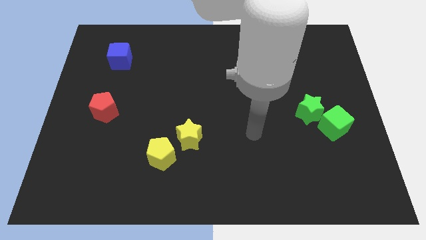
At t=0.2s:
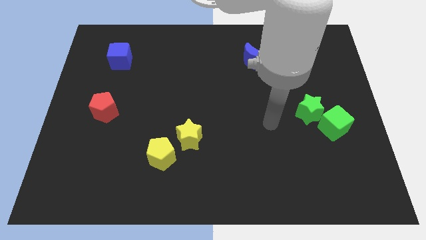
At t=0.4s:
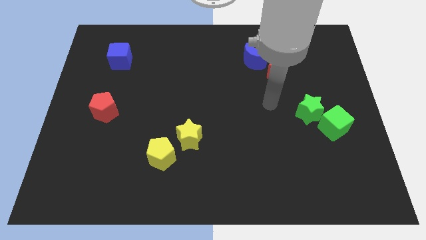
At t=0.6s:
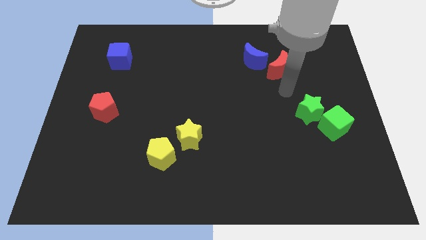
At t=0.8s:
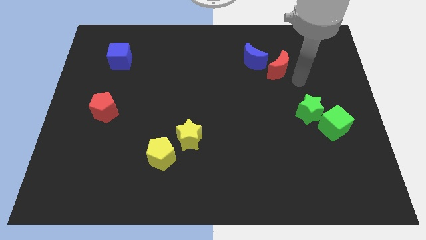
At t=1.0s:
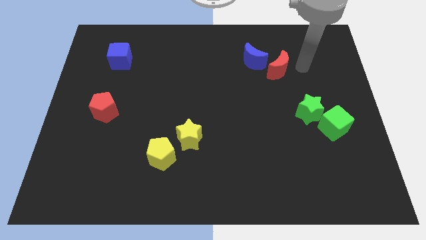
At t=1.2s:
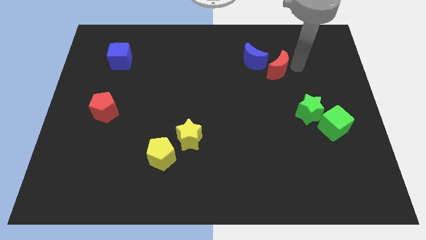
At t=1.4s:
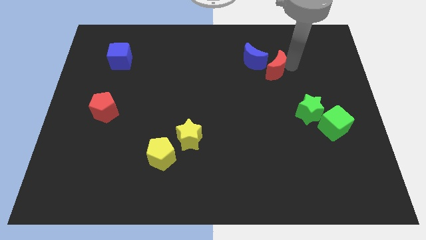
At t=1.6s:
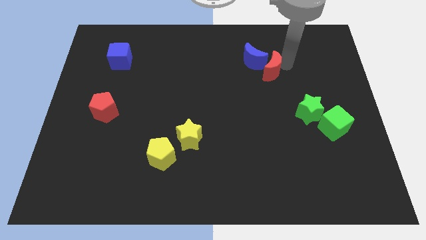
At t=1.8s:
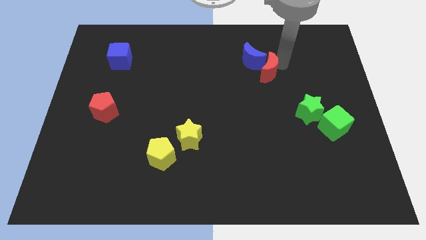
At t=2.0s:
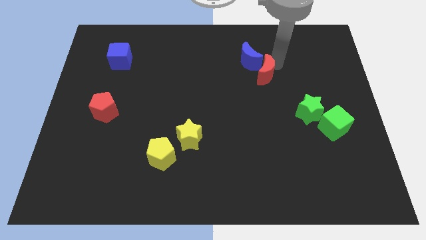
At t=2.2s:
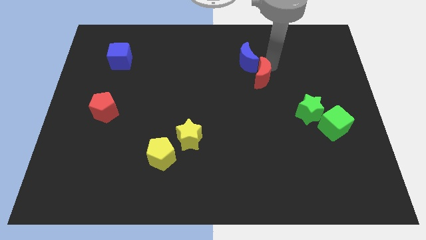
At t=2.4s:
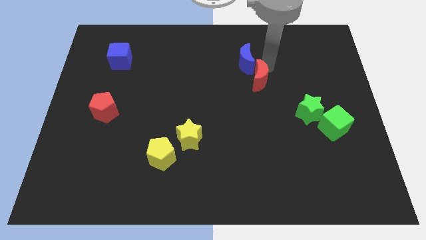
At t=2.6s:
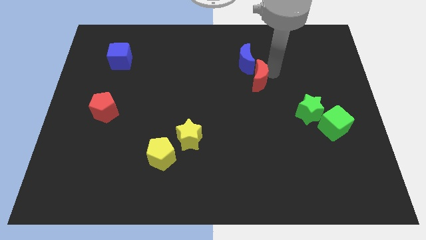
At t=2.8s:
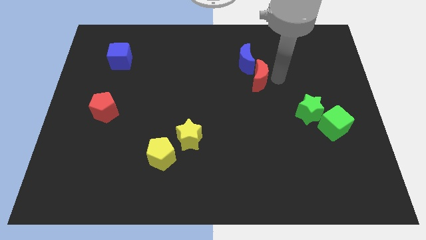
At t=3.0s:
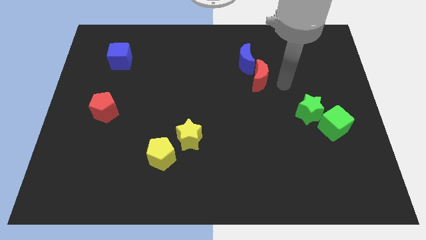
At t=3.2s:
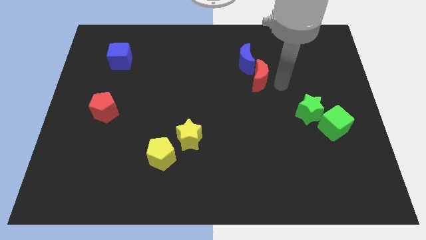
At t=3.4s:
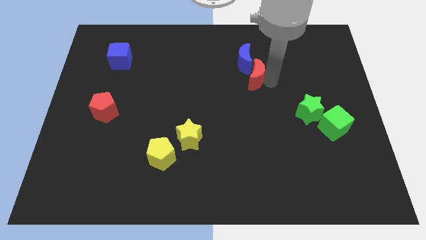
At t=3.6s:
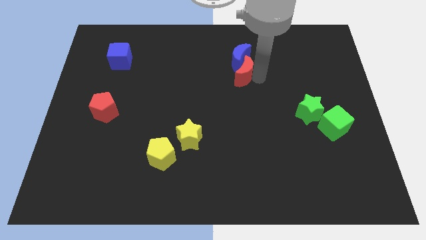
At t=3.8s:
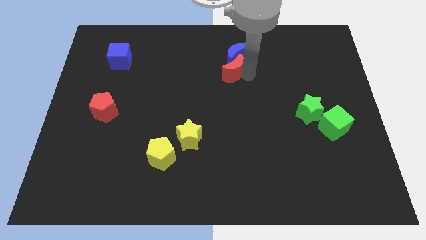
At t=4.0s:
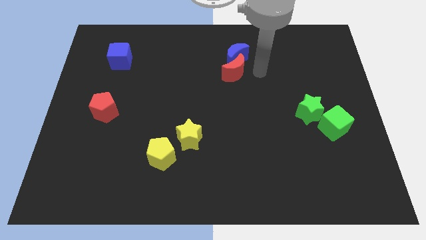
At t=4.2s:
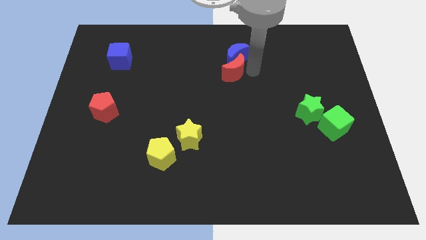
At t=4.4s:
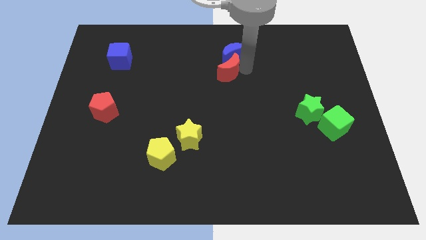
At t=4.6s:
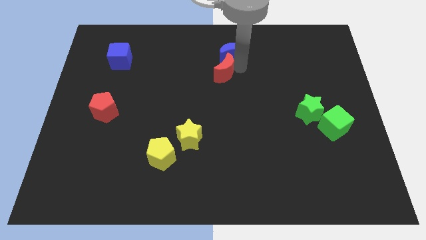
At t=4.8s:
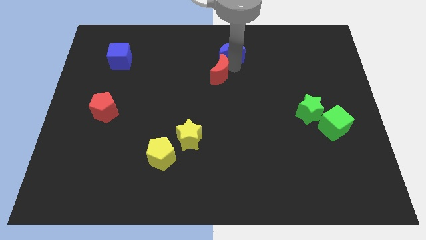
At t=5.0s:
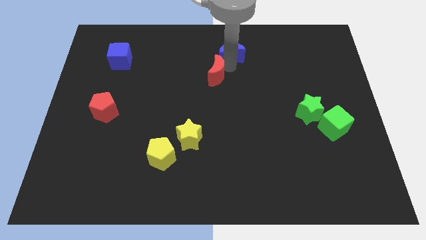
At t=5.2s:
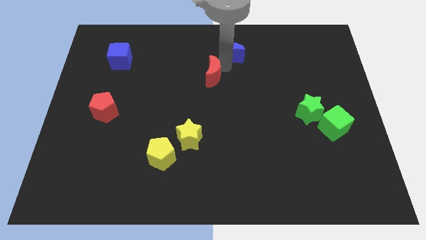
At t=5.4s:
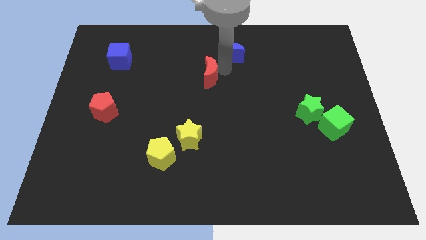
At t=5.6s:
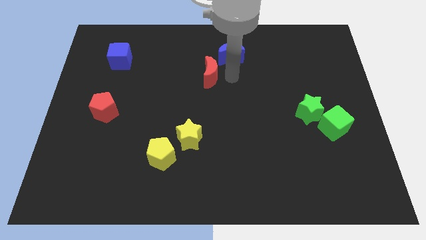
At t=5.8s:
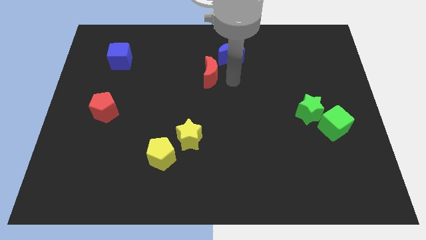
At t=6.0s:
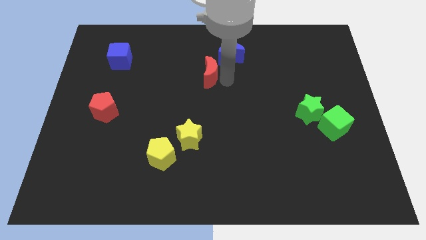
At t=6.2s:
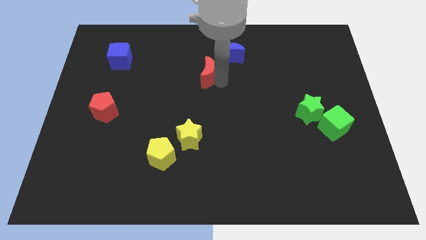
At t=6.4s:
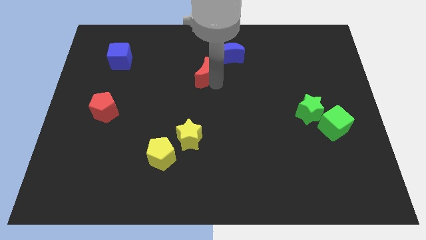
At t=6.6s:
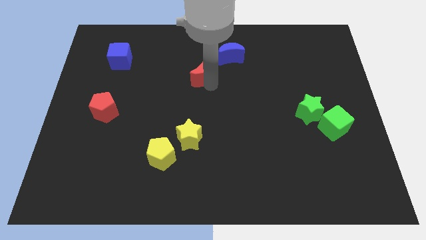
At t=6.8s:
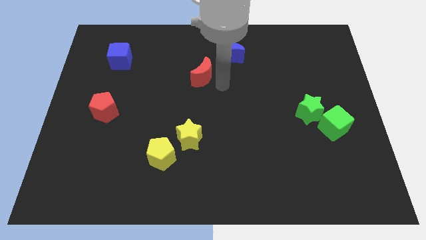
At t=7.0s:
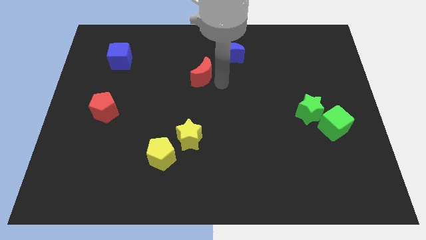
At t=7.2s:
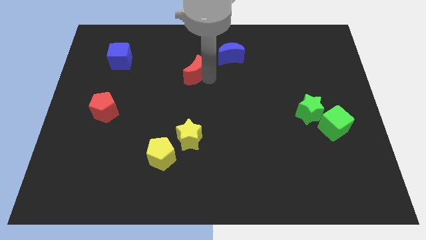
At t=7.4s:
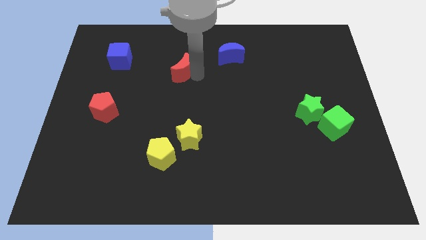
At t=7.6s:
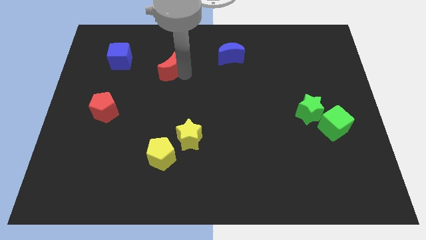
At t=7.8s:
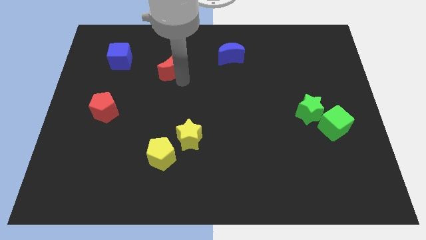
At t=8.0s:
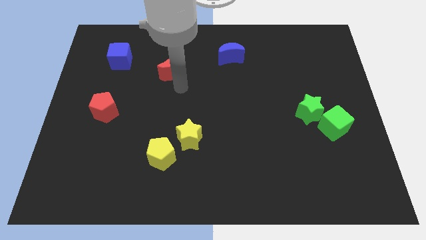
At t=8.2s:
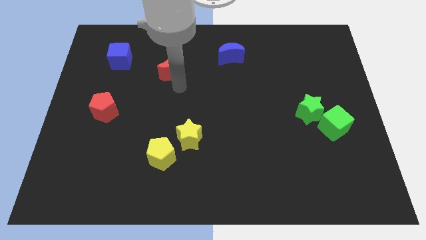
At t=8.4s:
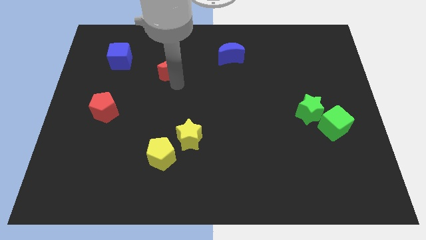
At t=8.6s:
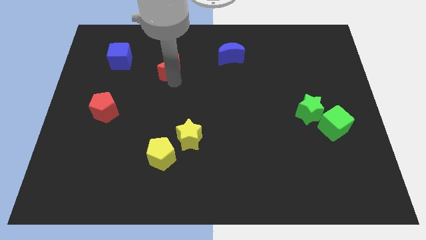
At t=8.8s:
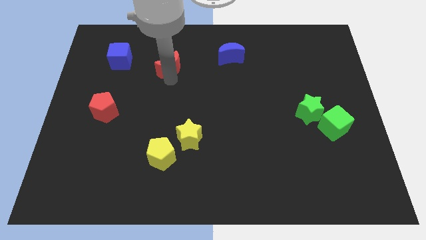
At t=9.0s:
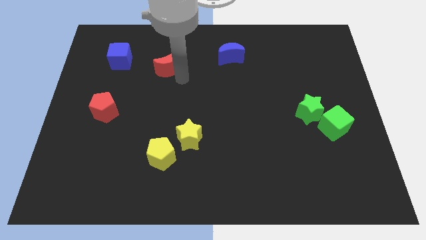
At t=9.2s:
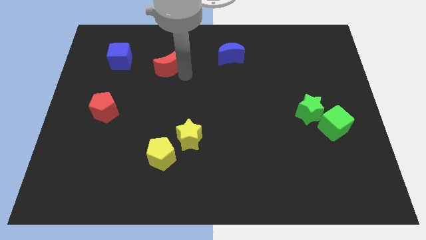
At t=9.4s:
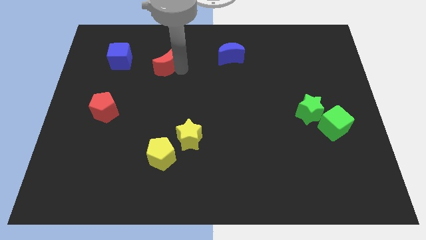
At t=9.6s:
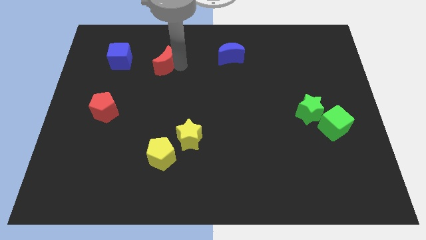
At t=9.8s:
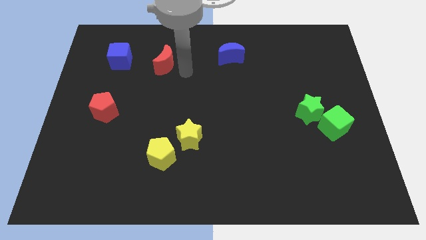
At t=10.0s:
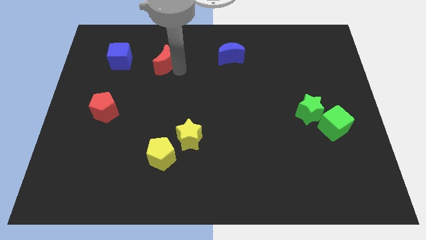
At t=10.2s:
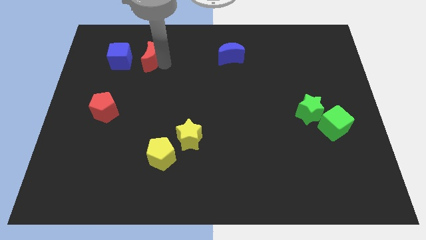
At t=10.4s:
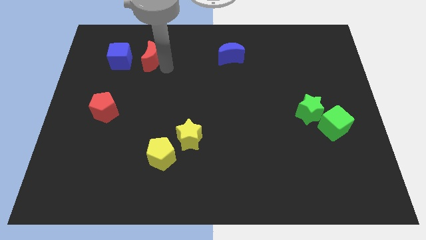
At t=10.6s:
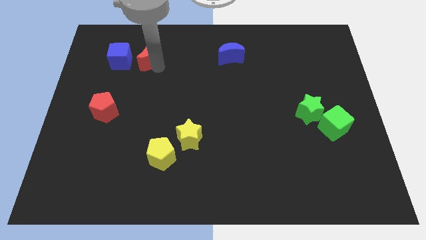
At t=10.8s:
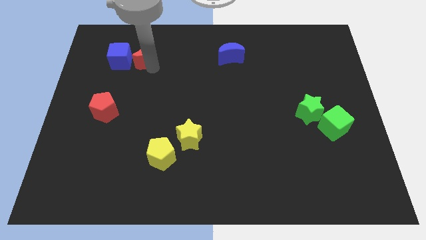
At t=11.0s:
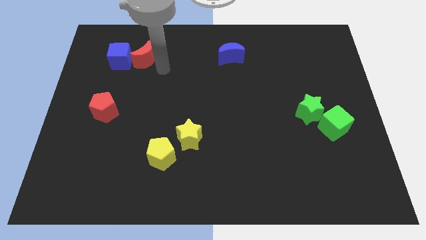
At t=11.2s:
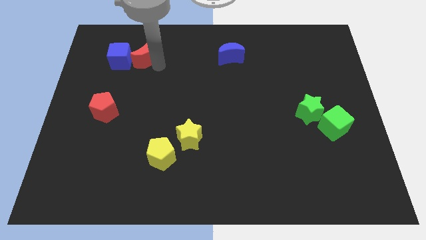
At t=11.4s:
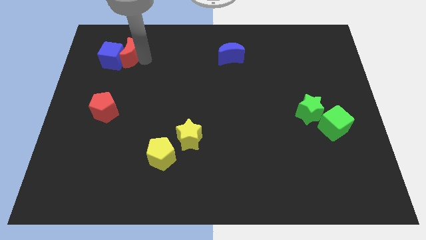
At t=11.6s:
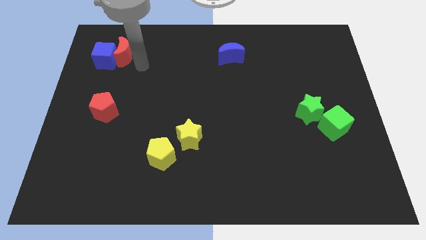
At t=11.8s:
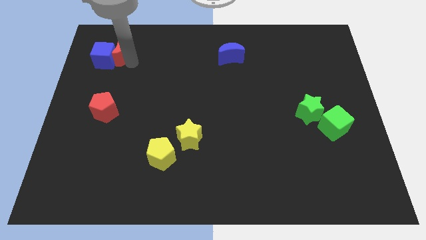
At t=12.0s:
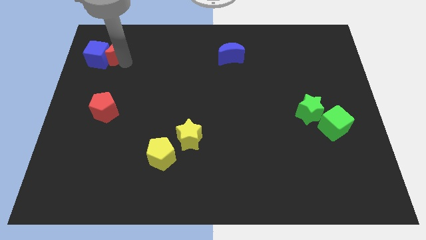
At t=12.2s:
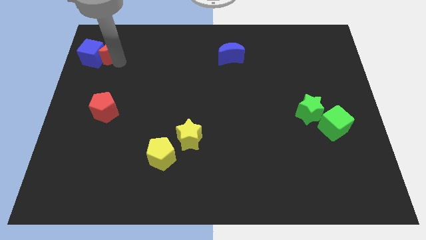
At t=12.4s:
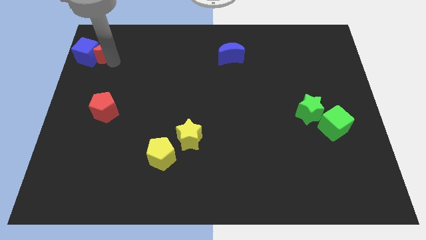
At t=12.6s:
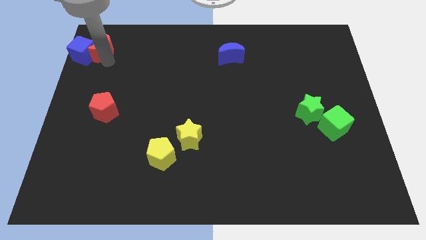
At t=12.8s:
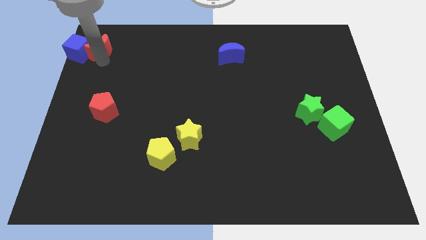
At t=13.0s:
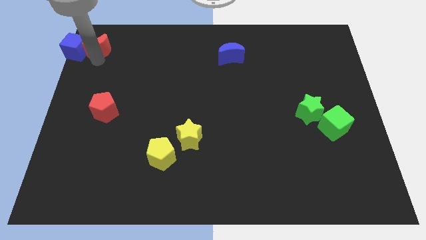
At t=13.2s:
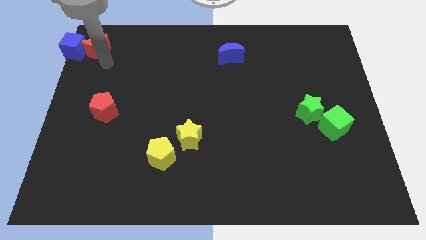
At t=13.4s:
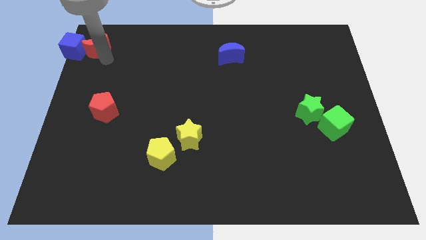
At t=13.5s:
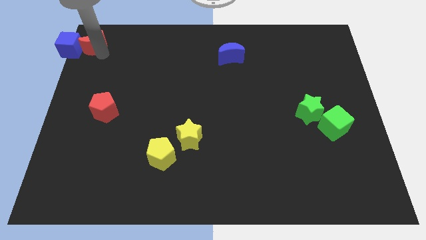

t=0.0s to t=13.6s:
slide the red moon to the top left
